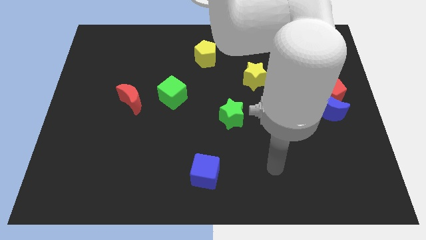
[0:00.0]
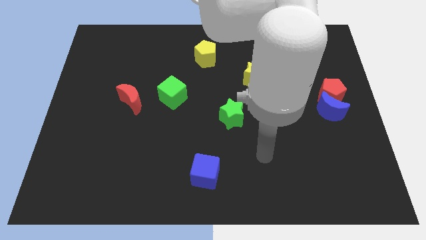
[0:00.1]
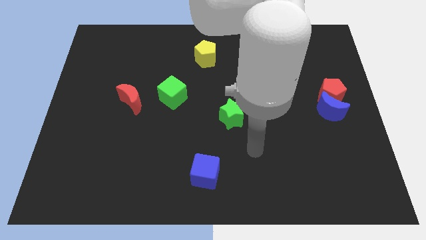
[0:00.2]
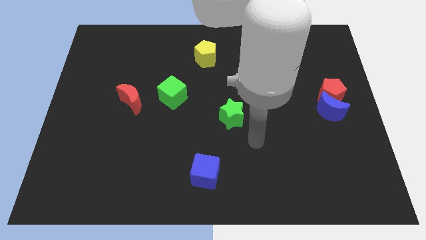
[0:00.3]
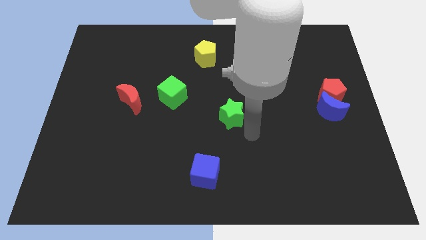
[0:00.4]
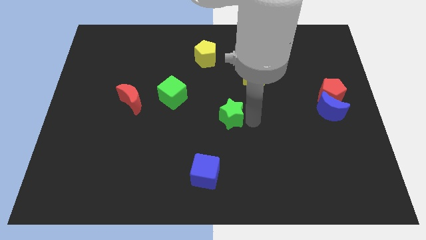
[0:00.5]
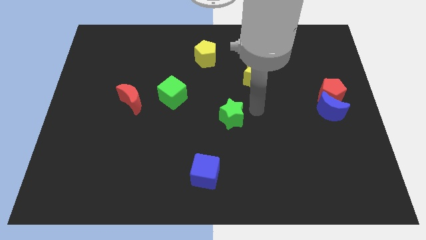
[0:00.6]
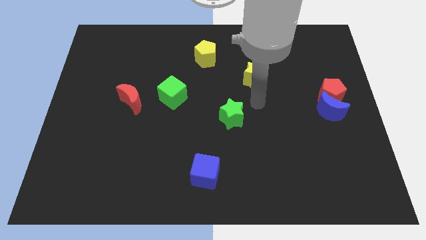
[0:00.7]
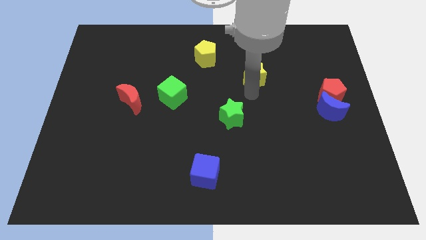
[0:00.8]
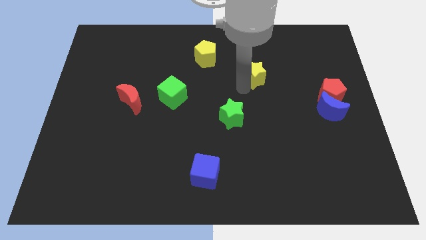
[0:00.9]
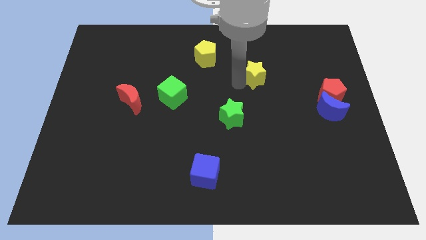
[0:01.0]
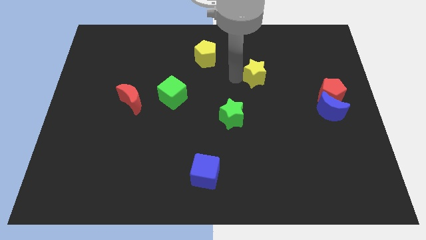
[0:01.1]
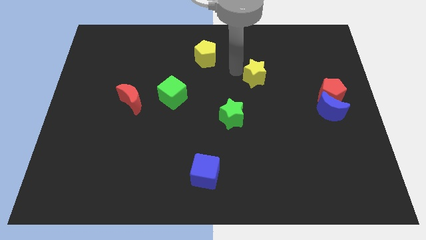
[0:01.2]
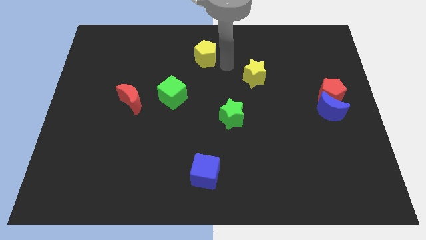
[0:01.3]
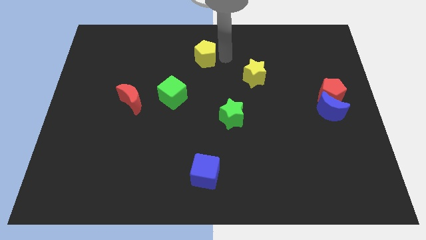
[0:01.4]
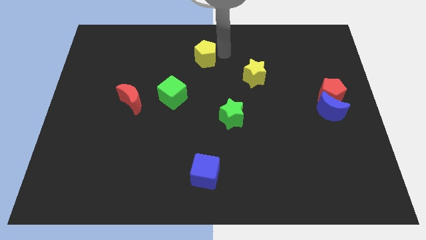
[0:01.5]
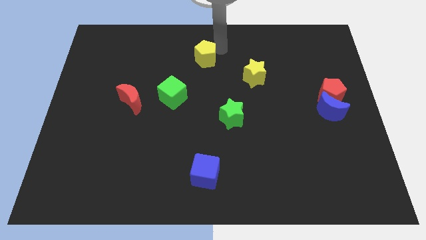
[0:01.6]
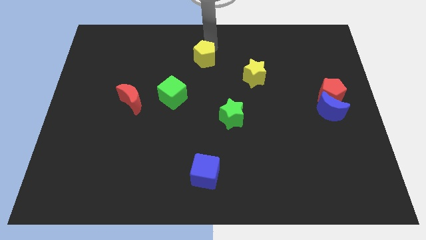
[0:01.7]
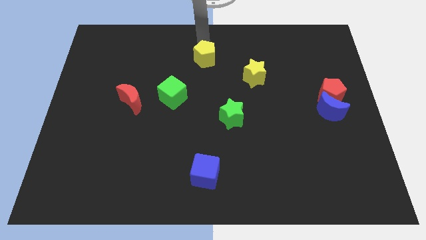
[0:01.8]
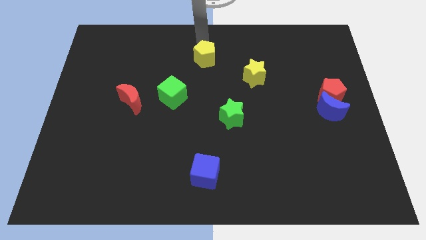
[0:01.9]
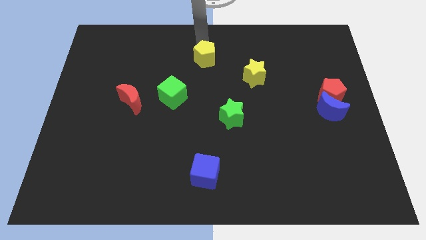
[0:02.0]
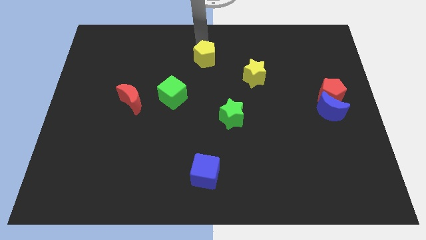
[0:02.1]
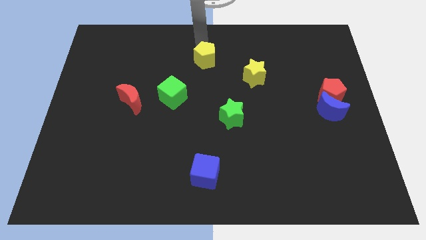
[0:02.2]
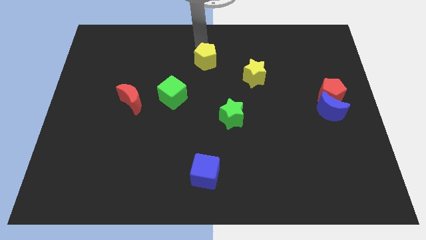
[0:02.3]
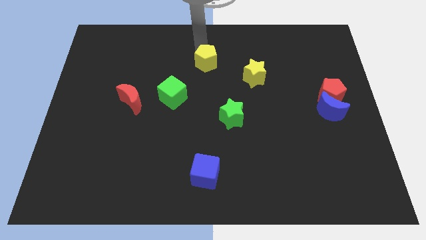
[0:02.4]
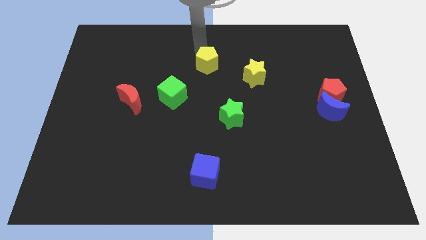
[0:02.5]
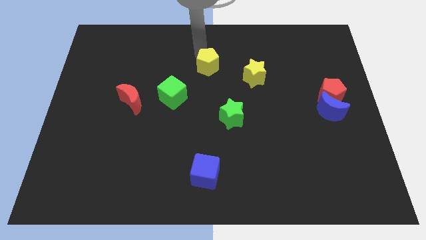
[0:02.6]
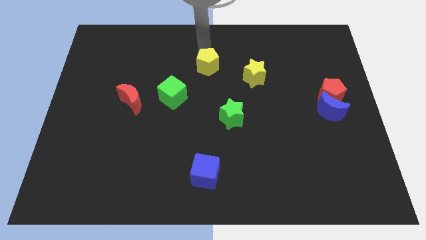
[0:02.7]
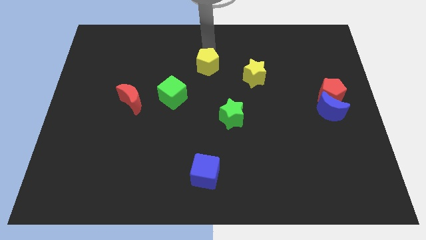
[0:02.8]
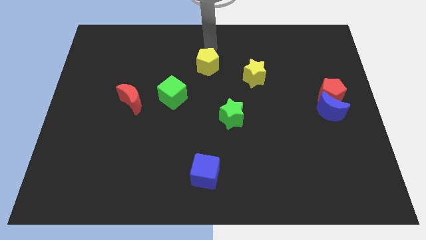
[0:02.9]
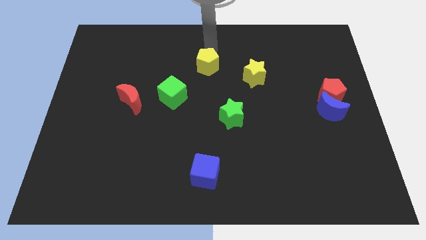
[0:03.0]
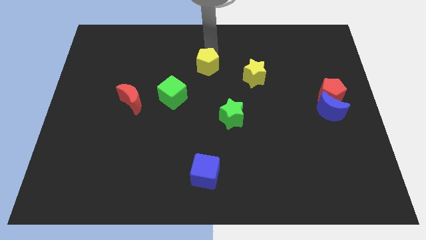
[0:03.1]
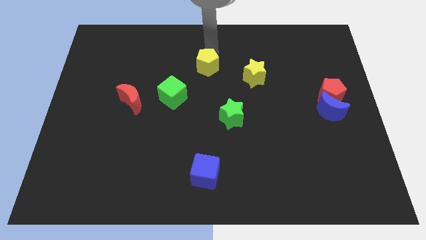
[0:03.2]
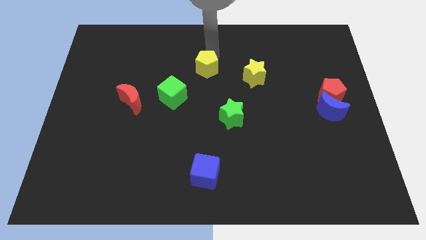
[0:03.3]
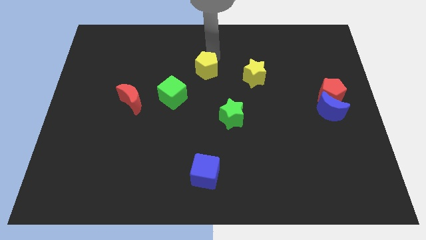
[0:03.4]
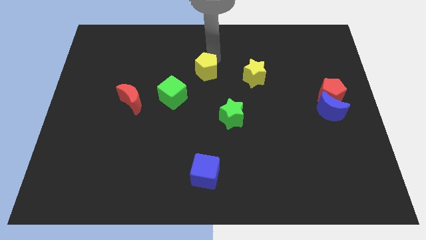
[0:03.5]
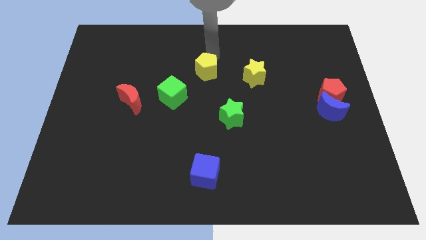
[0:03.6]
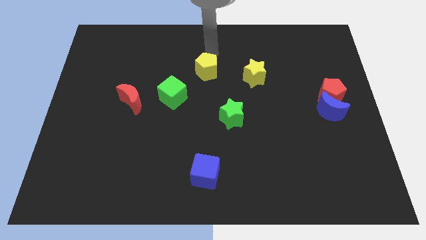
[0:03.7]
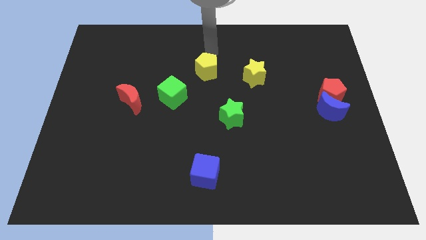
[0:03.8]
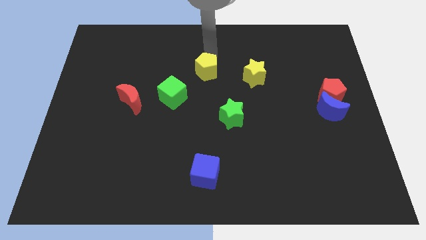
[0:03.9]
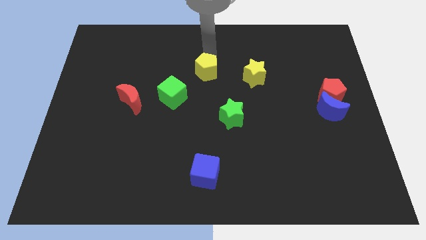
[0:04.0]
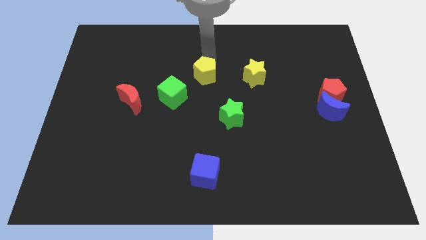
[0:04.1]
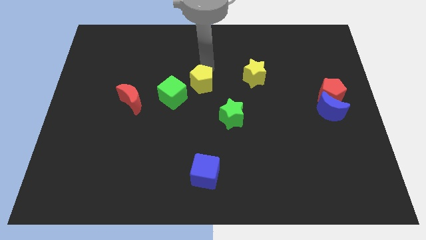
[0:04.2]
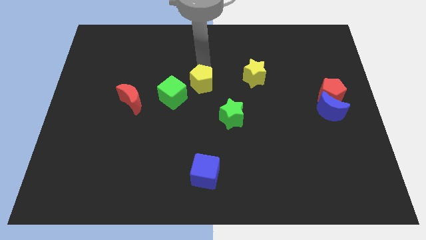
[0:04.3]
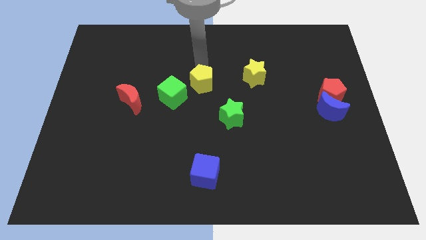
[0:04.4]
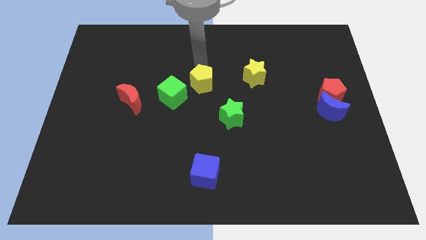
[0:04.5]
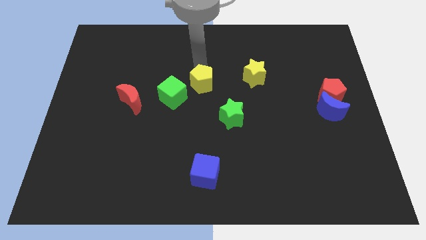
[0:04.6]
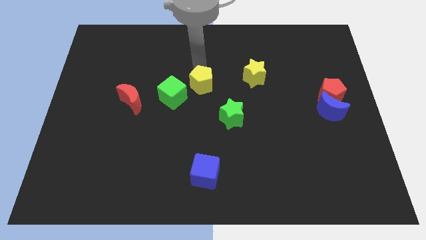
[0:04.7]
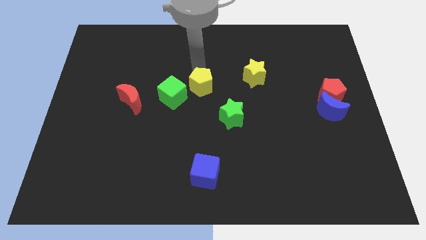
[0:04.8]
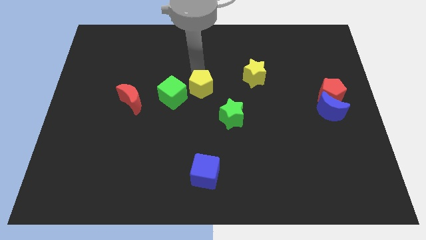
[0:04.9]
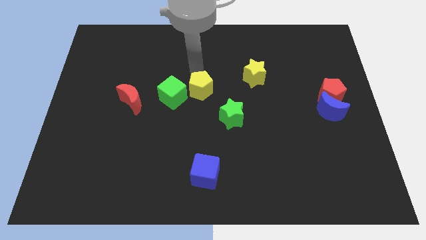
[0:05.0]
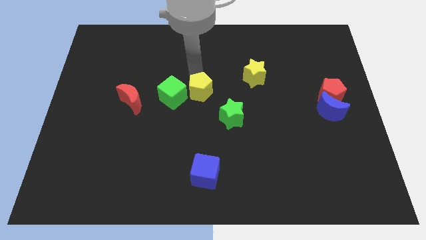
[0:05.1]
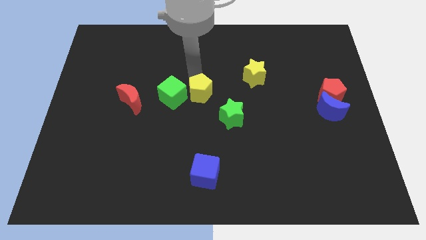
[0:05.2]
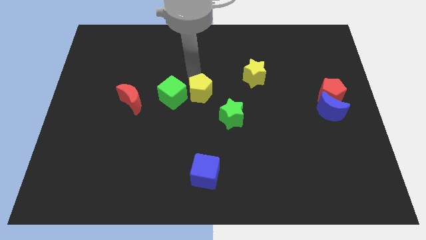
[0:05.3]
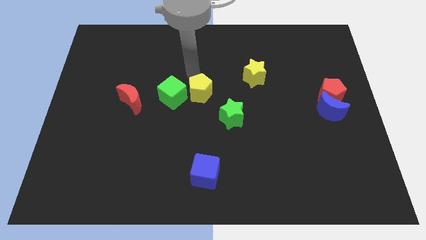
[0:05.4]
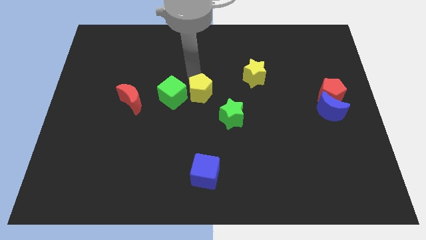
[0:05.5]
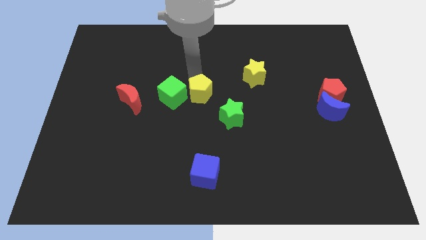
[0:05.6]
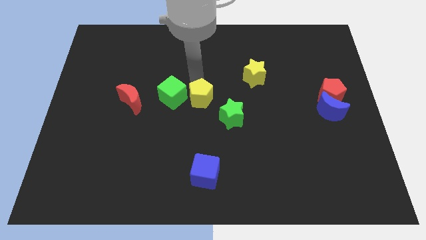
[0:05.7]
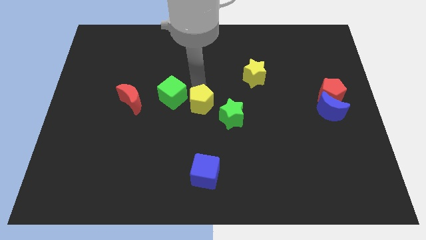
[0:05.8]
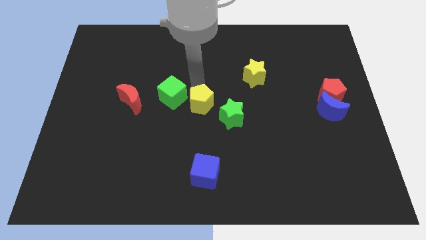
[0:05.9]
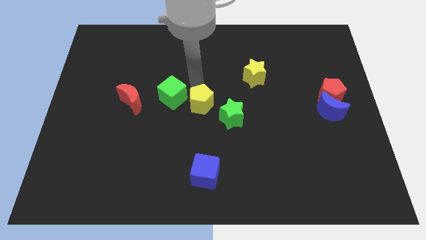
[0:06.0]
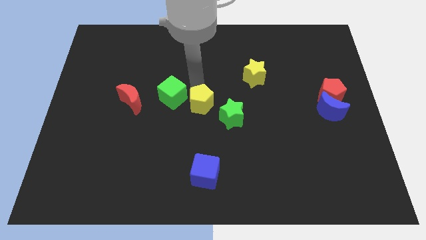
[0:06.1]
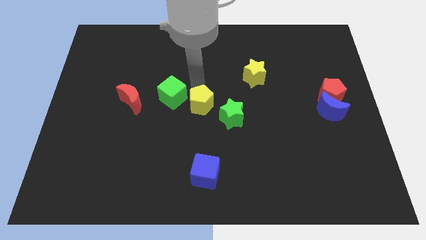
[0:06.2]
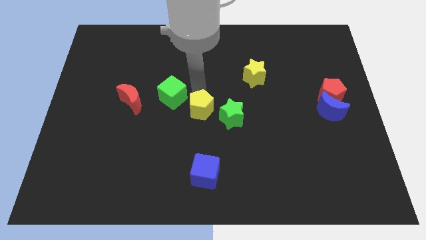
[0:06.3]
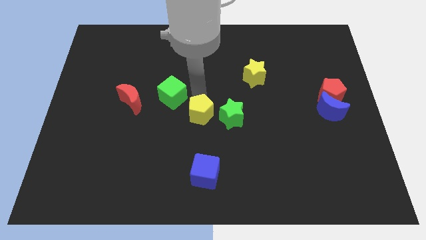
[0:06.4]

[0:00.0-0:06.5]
put the yellow pentagon to the top side of the blue cube
